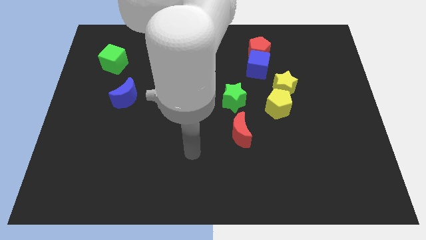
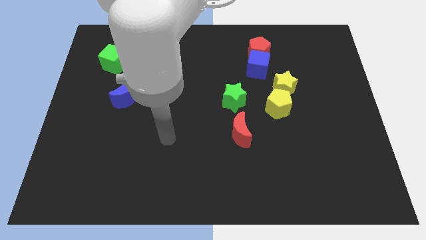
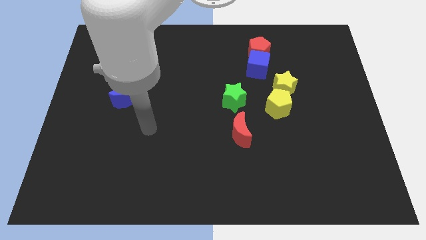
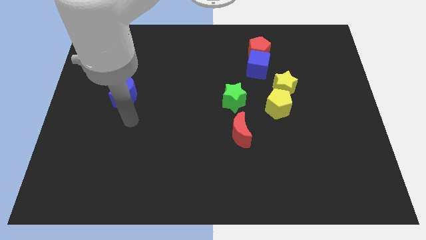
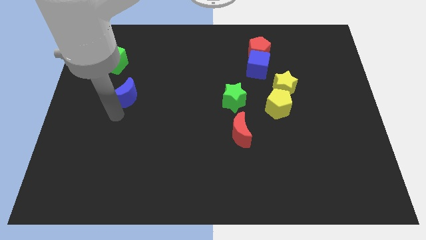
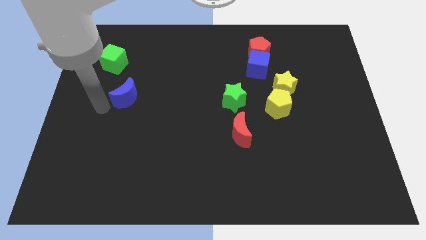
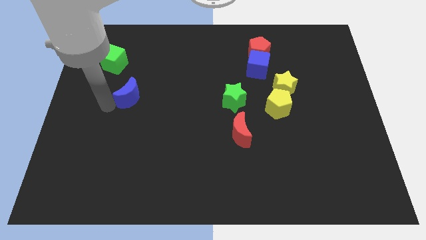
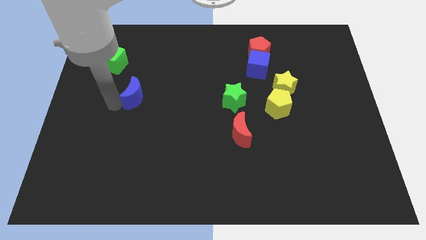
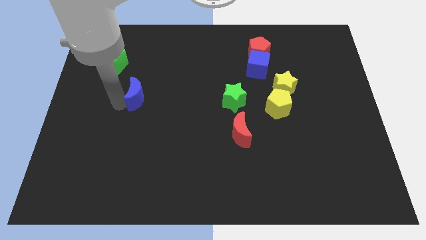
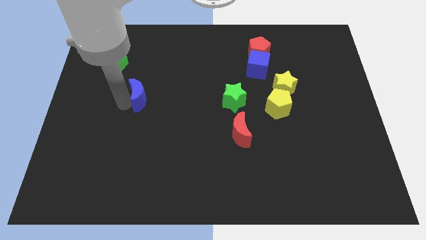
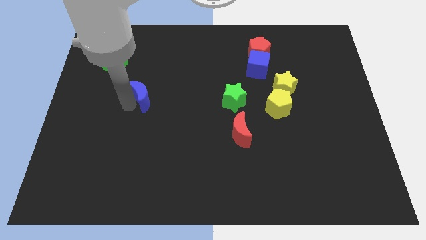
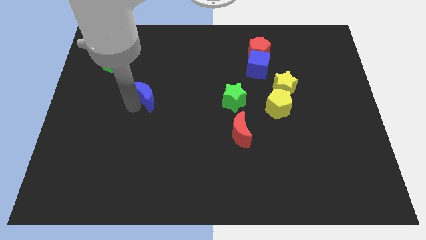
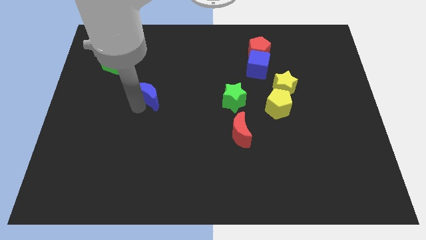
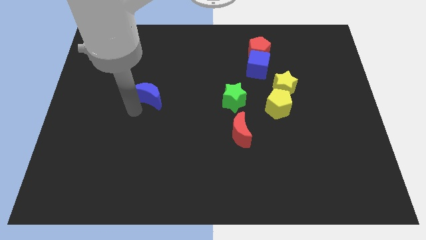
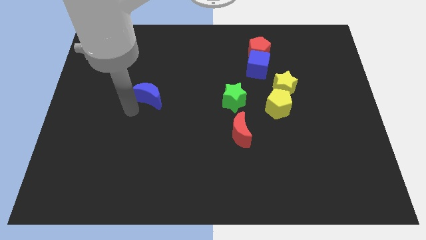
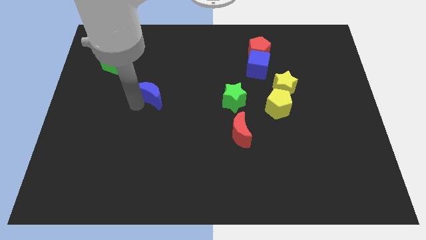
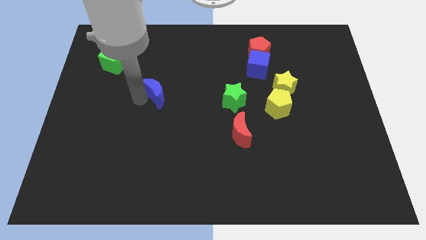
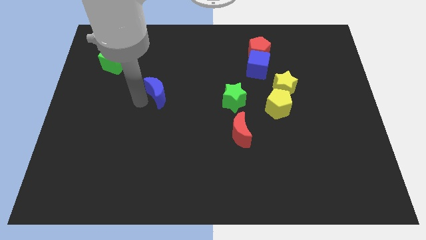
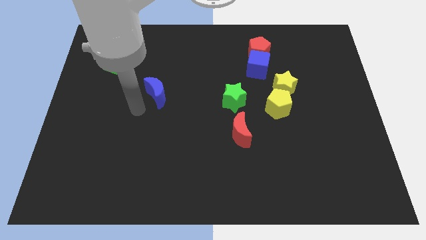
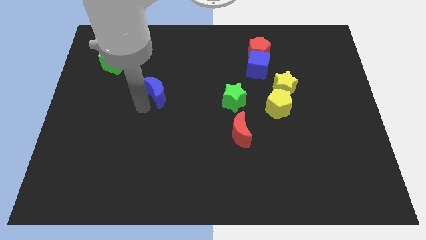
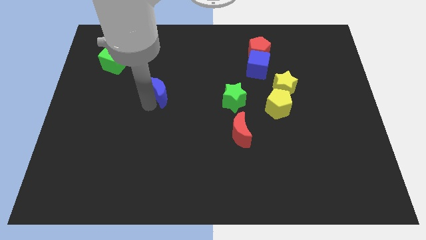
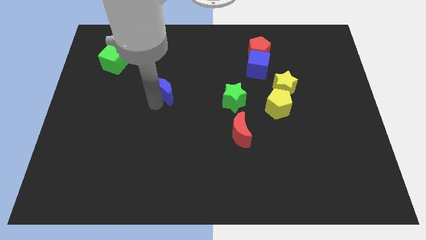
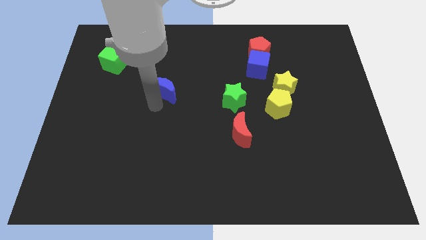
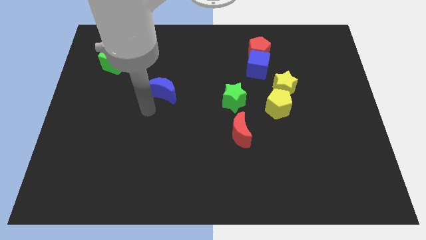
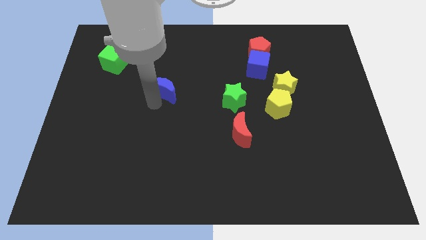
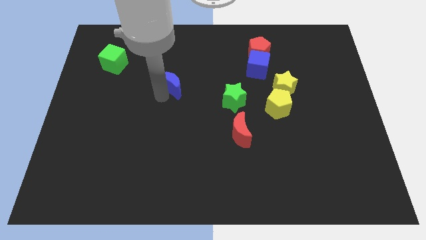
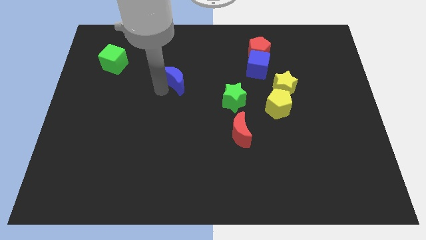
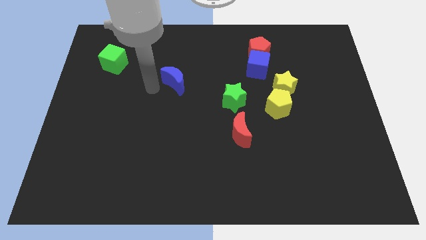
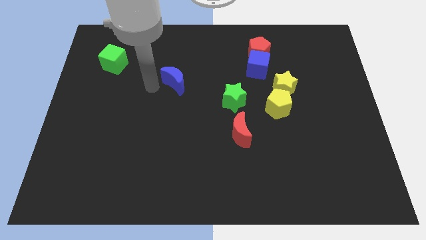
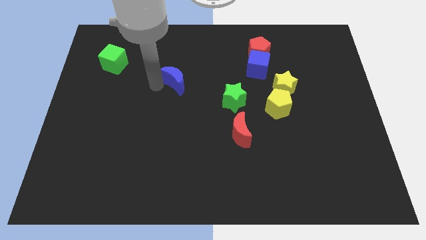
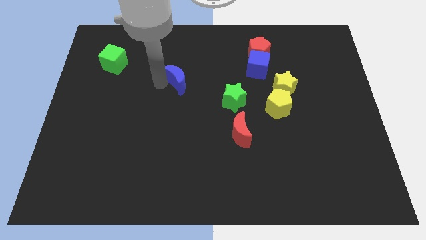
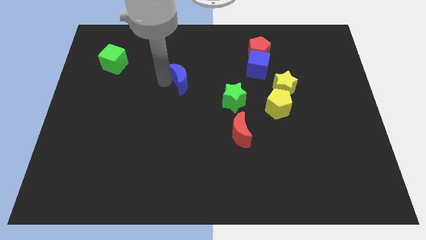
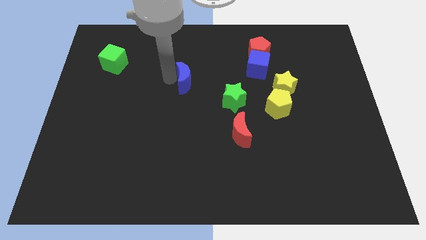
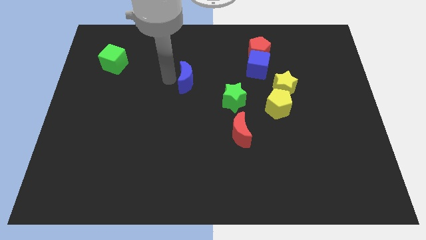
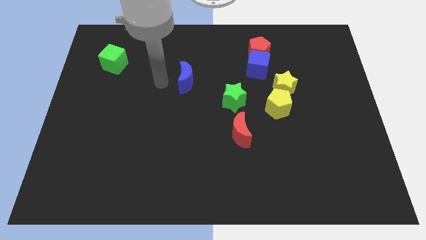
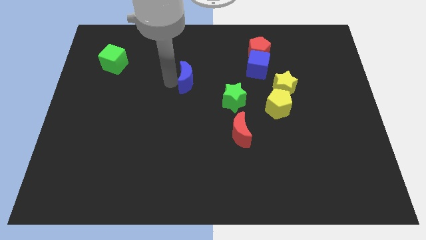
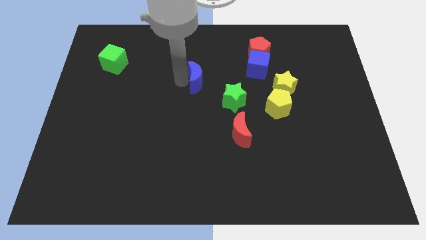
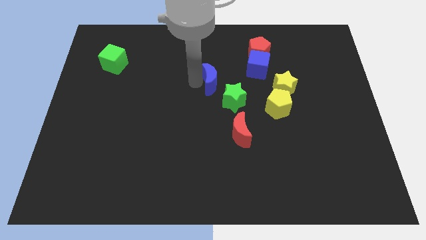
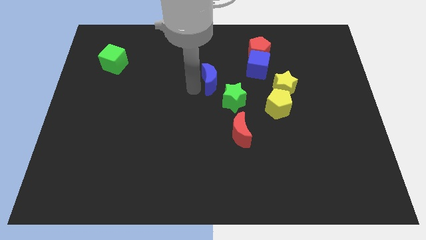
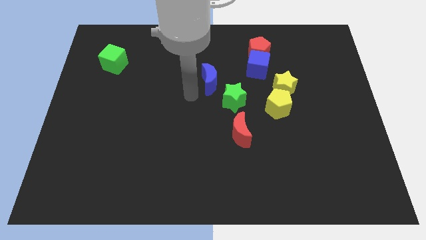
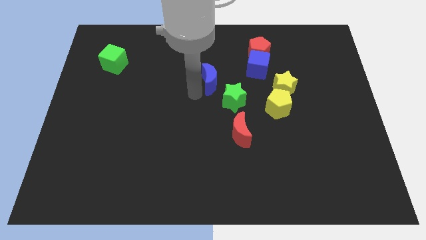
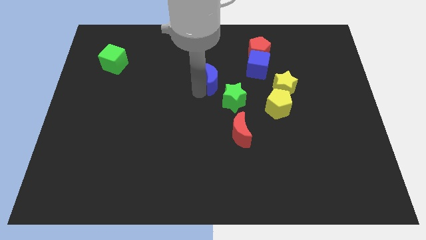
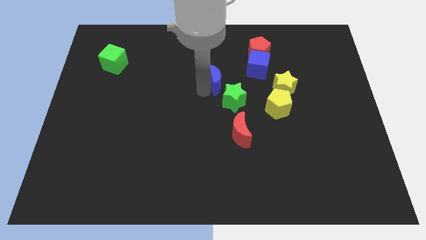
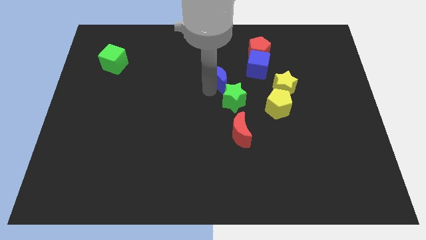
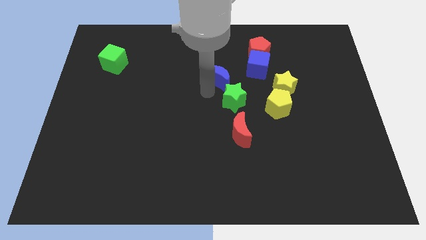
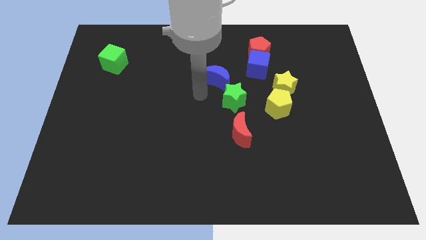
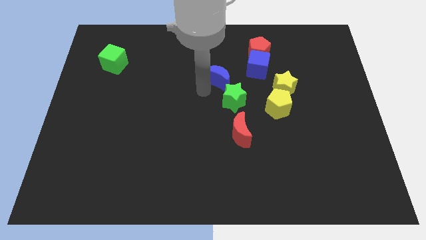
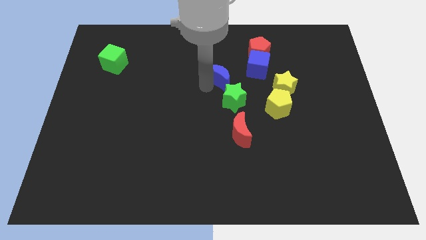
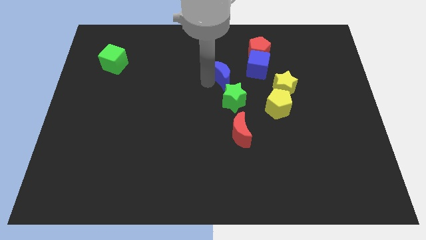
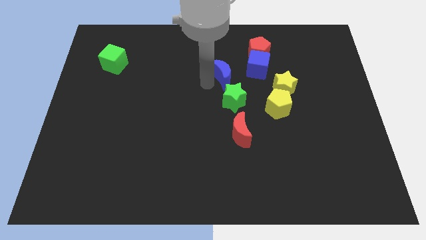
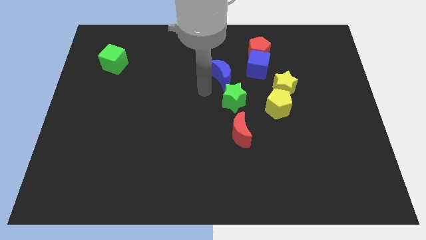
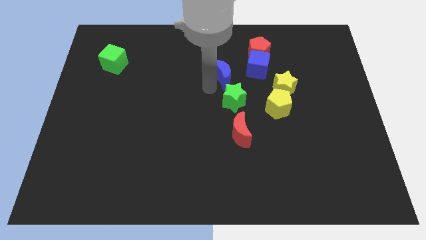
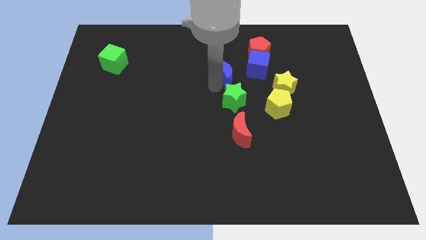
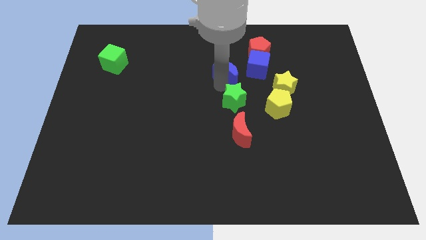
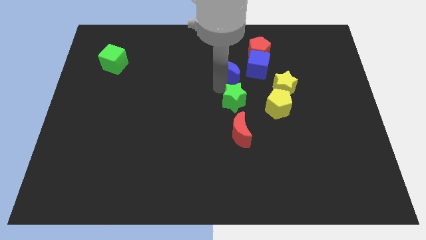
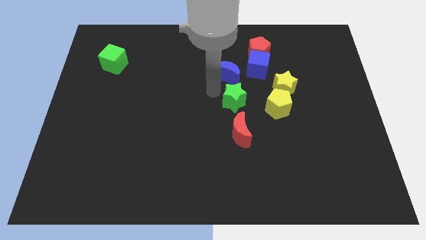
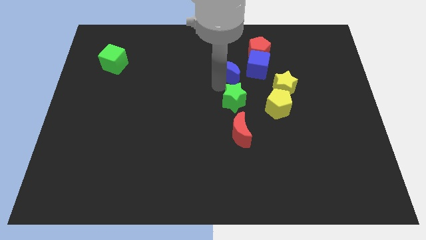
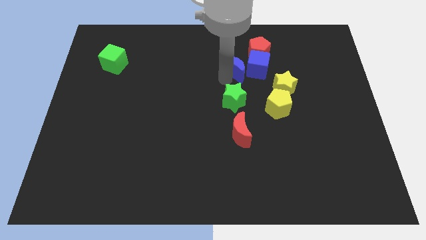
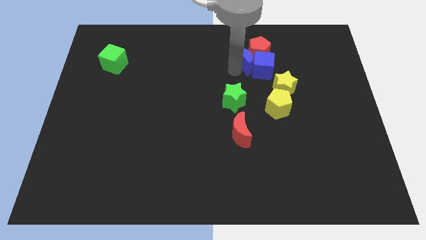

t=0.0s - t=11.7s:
put the blue moon towards the red pentagon

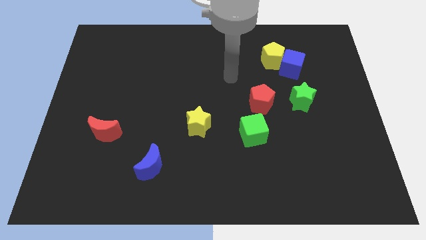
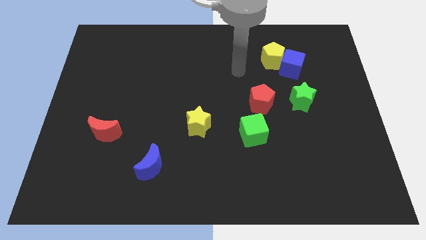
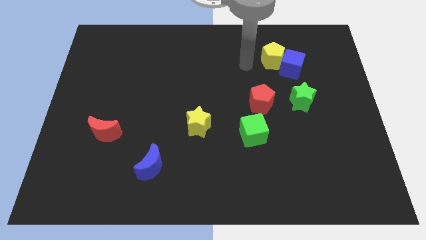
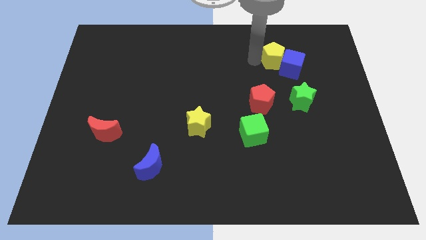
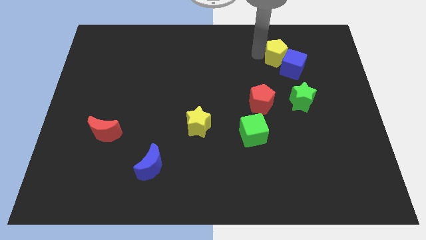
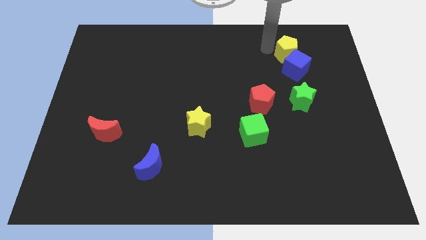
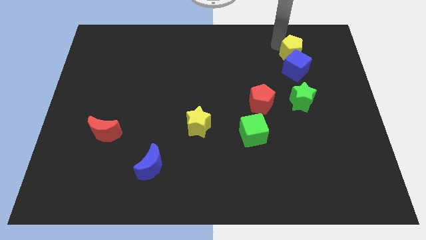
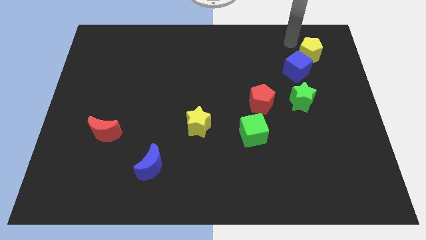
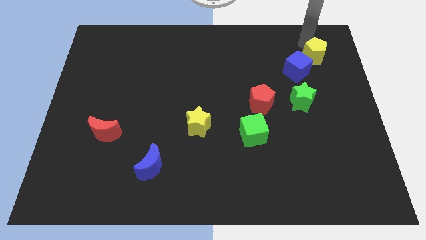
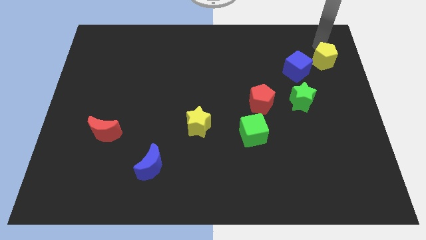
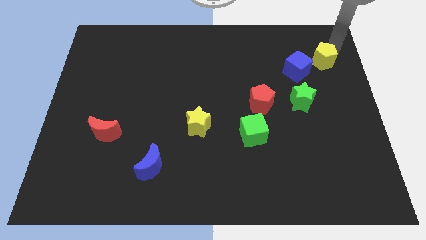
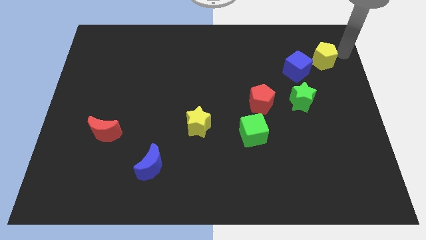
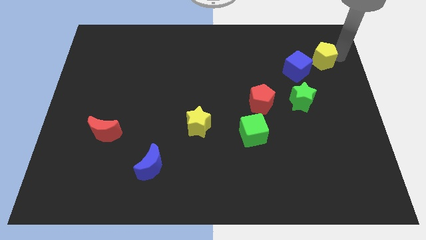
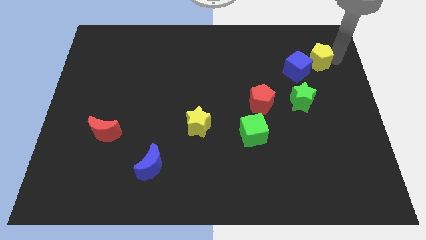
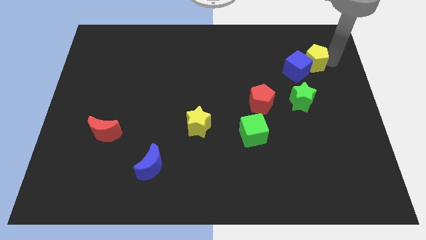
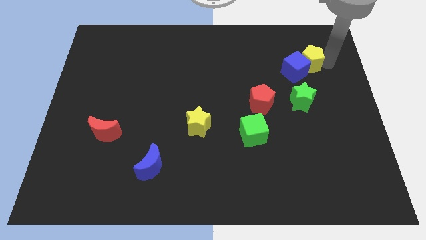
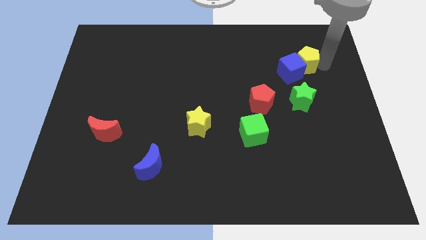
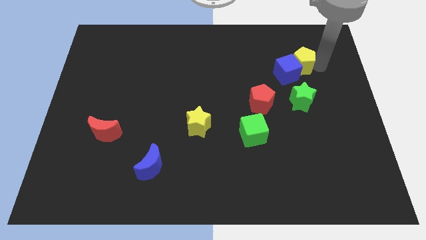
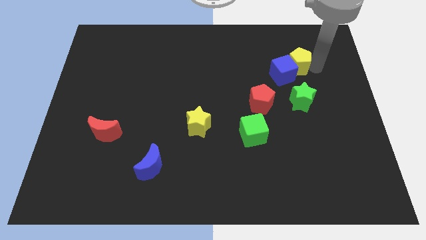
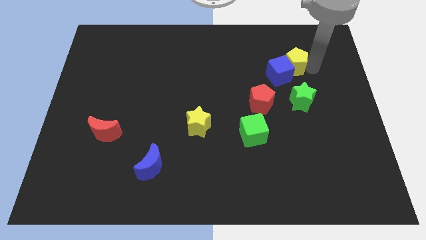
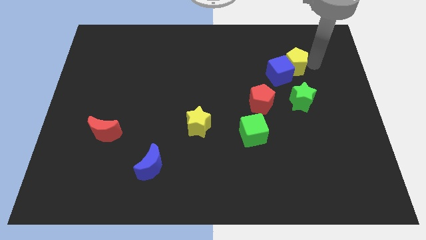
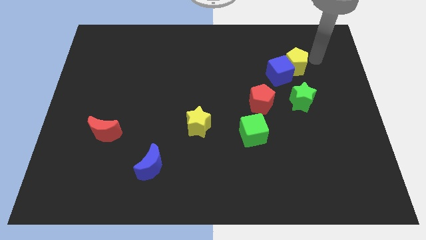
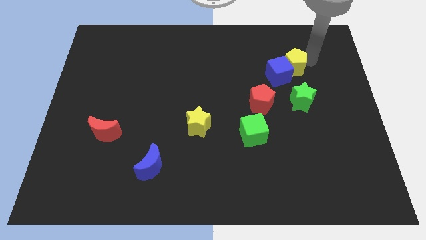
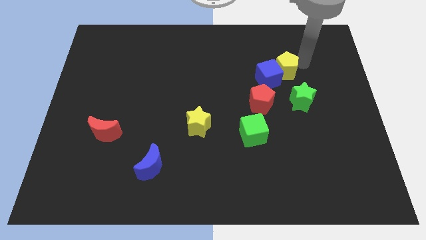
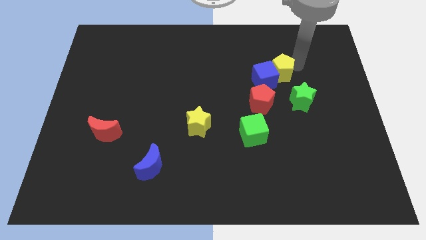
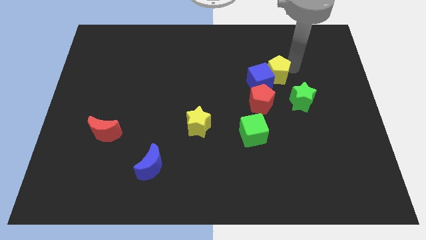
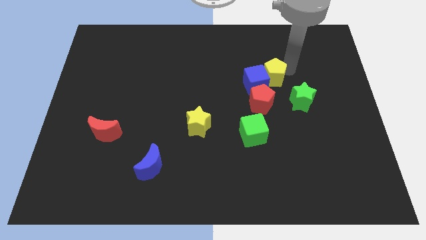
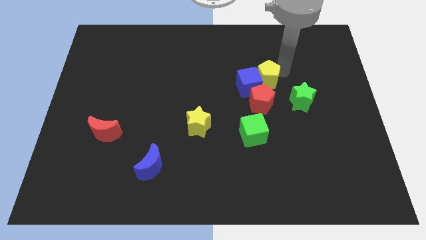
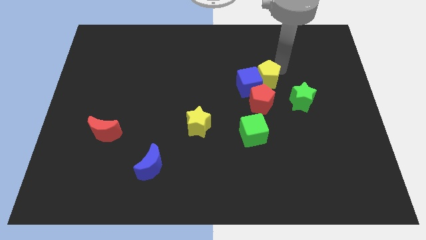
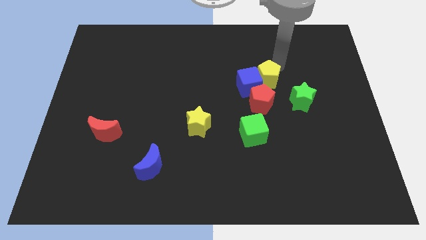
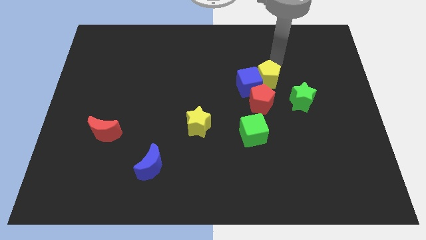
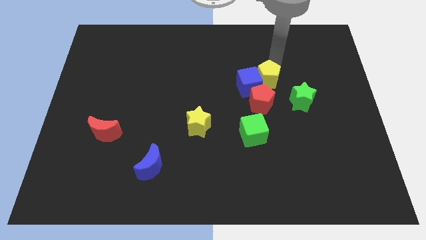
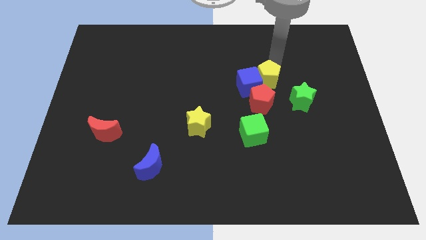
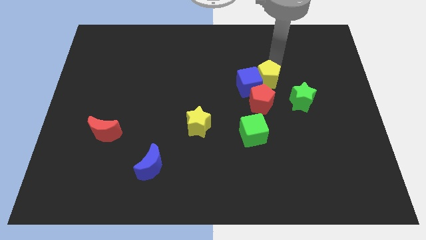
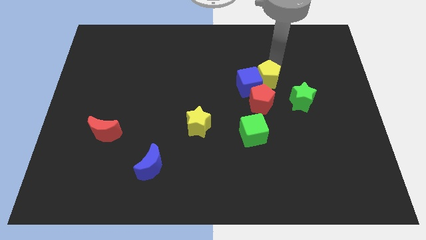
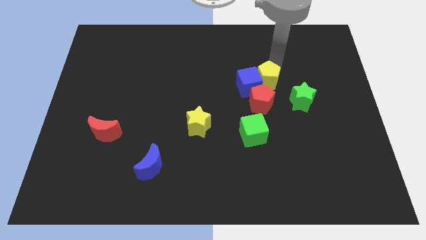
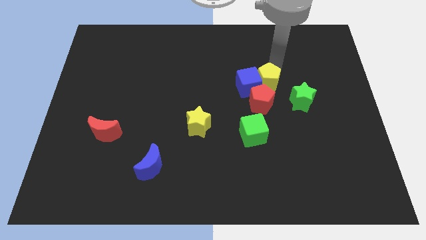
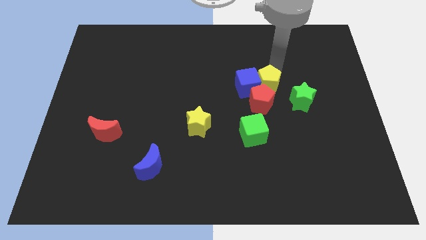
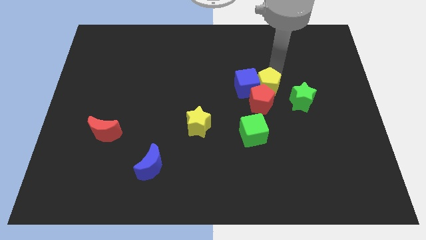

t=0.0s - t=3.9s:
move the yellow pentagon close to the red pentagon
